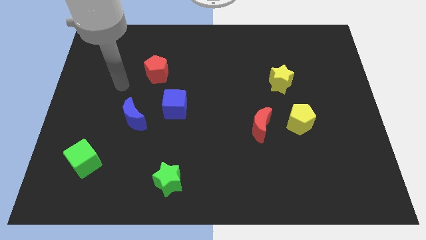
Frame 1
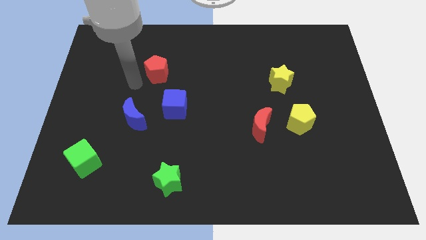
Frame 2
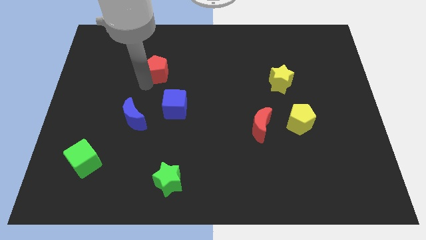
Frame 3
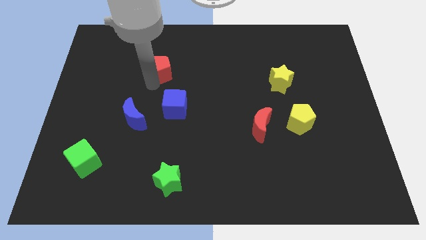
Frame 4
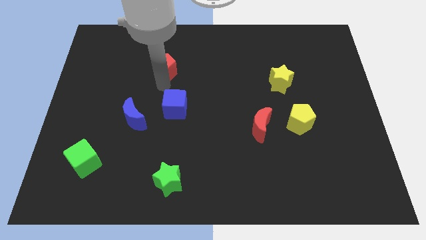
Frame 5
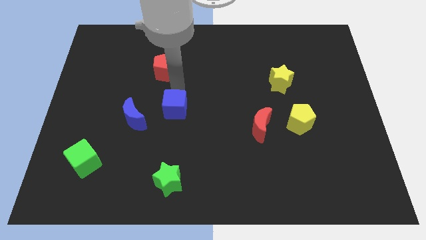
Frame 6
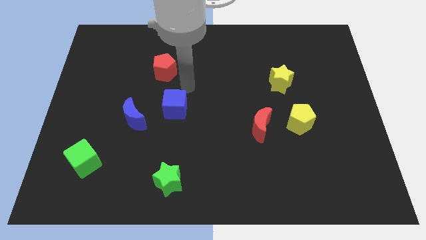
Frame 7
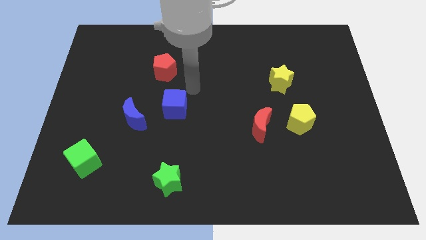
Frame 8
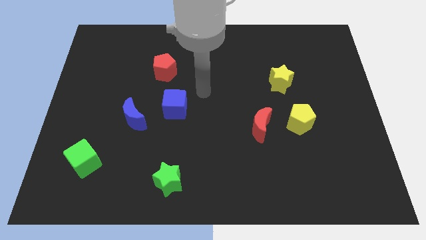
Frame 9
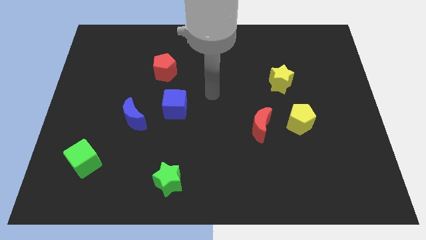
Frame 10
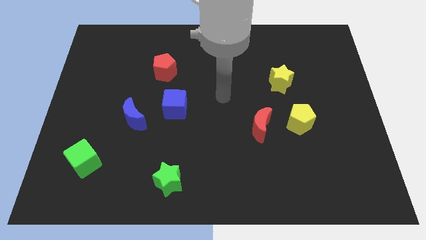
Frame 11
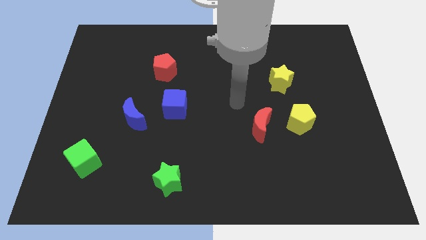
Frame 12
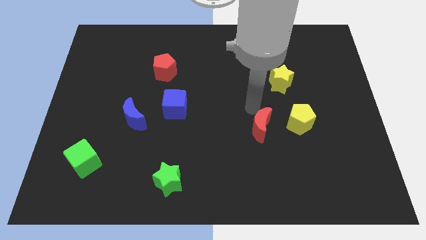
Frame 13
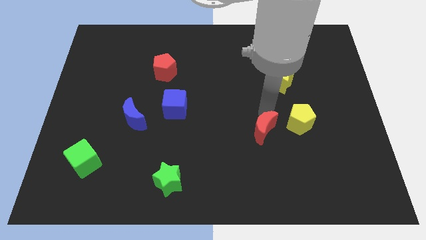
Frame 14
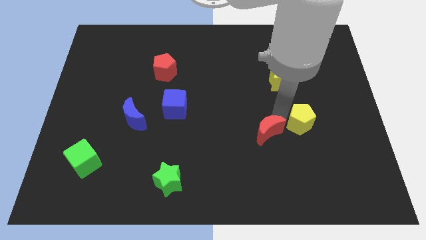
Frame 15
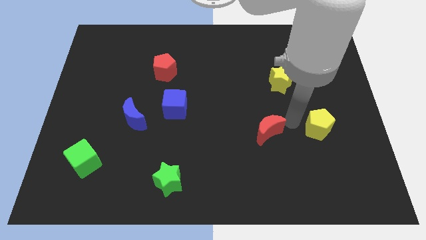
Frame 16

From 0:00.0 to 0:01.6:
pull the red moon apart from the yellow pentagon

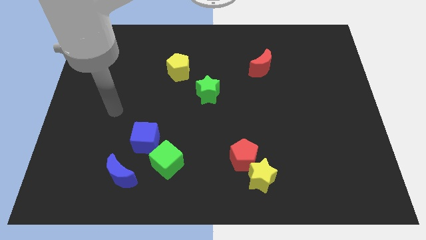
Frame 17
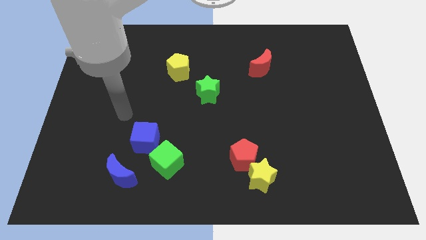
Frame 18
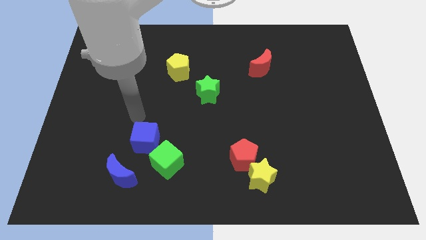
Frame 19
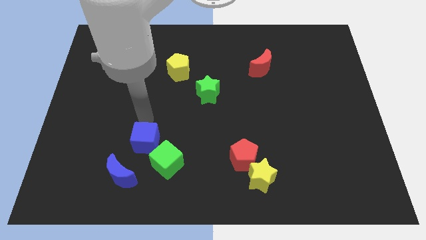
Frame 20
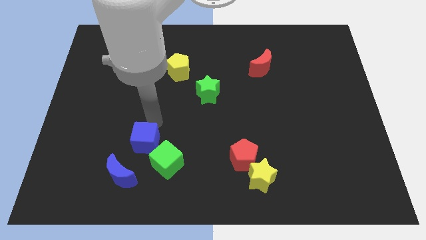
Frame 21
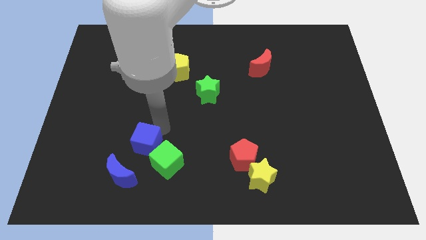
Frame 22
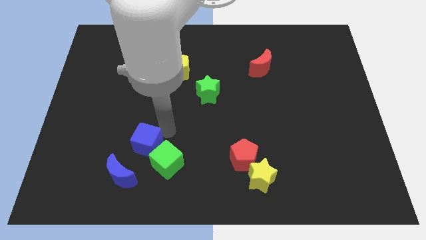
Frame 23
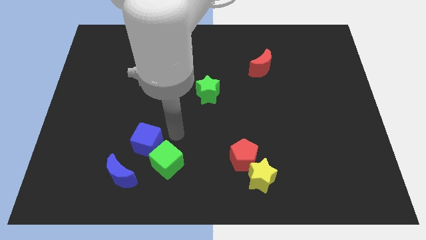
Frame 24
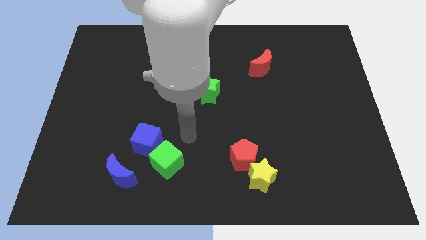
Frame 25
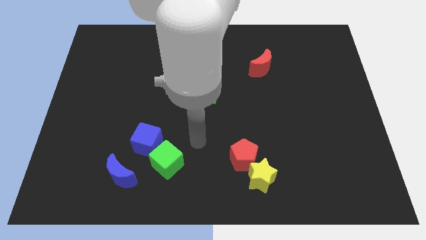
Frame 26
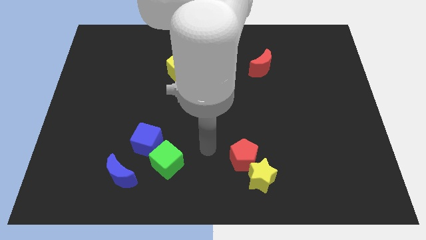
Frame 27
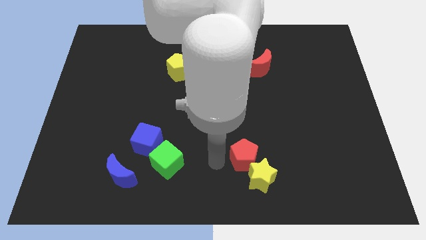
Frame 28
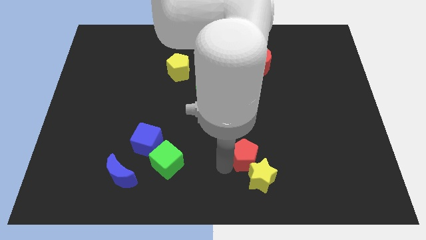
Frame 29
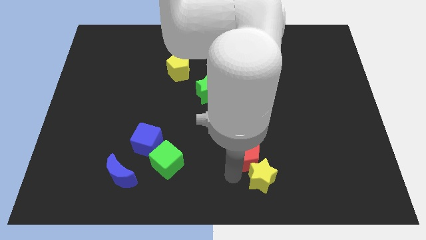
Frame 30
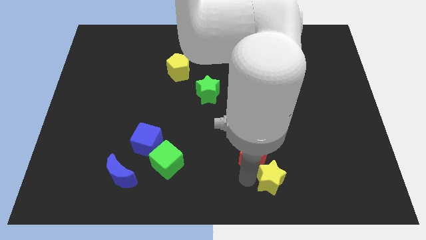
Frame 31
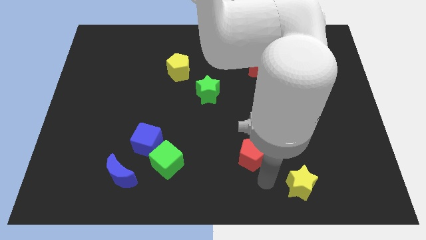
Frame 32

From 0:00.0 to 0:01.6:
pull the red pentagon apart from the yellow star

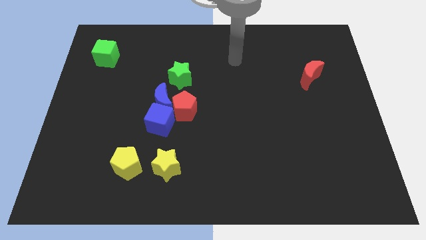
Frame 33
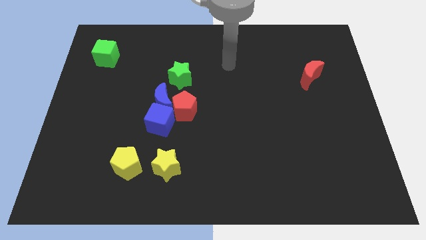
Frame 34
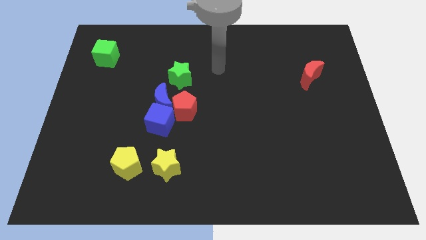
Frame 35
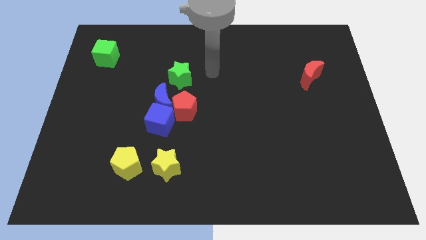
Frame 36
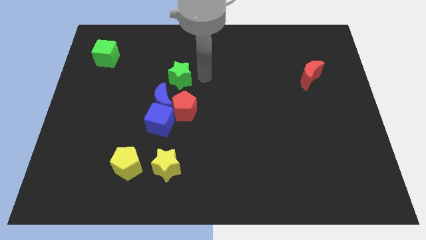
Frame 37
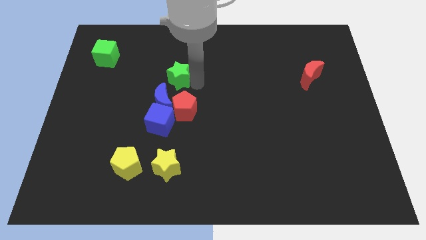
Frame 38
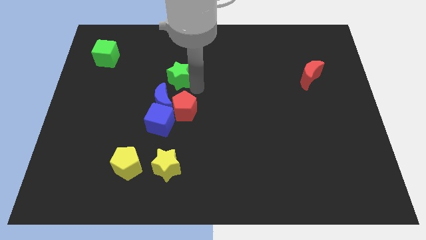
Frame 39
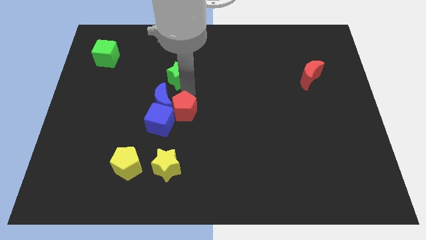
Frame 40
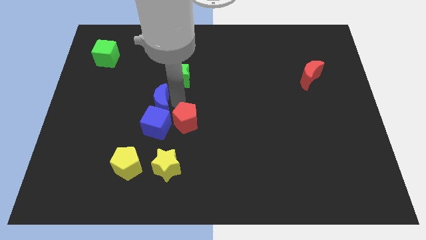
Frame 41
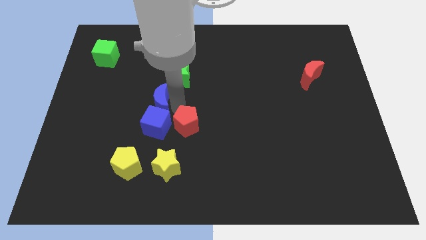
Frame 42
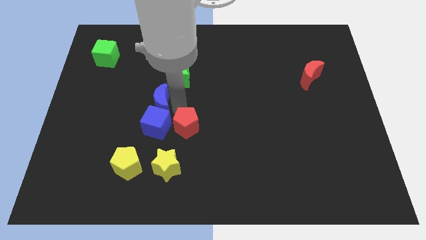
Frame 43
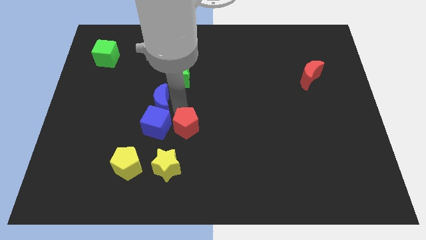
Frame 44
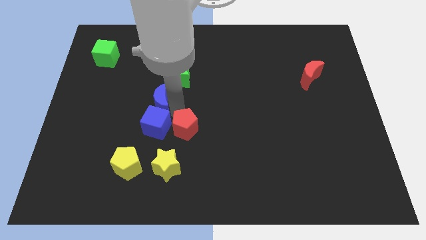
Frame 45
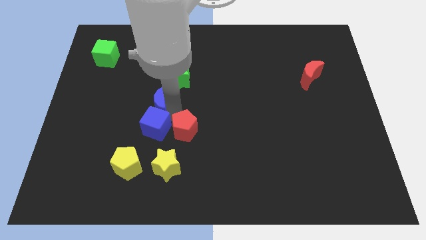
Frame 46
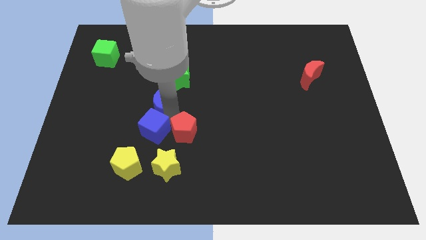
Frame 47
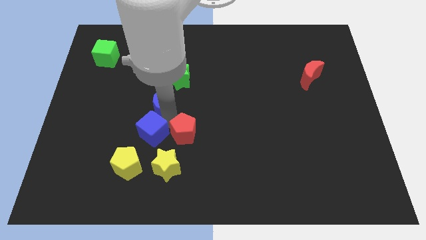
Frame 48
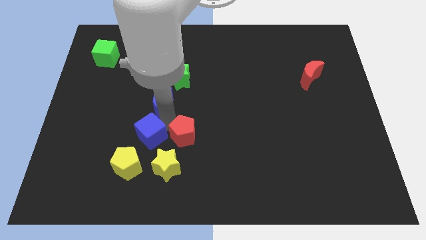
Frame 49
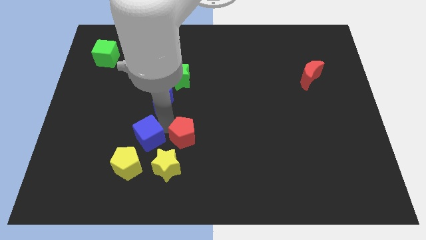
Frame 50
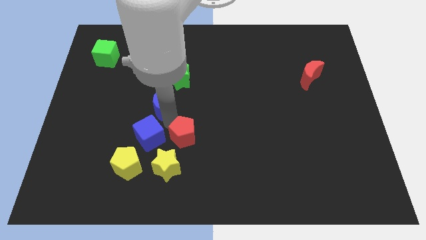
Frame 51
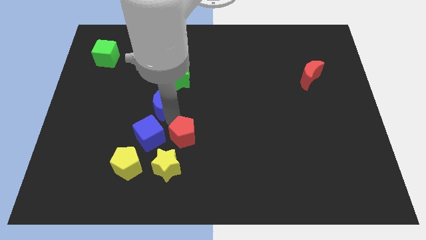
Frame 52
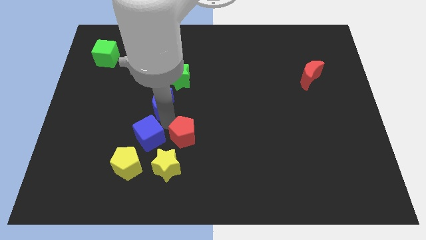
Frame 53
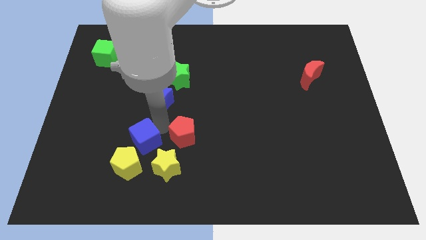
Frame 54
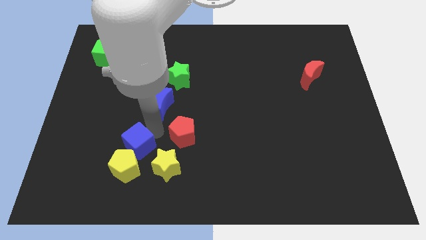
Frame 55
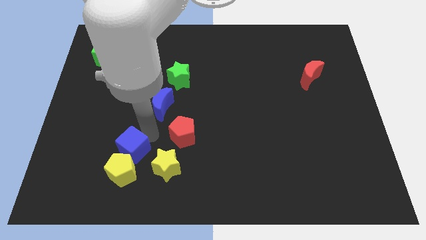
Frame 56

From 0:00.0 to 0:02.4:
pull the blue cube apart from the blue moon and red pentagon

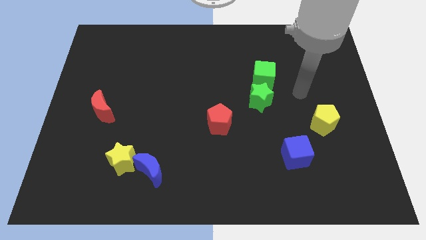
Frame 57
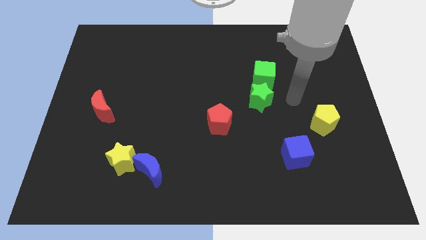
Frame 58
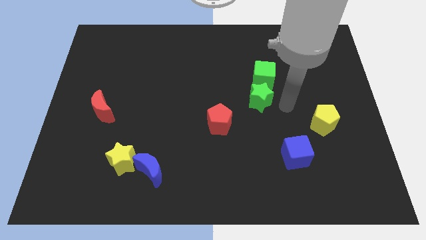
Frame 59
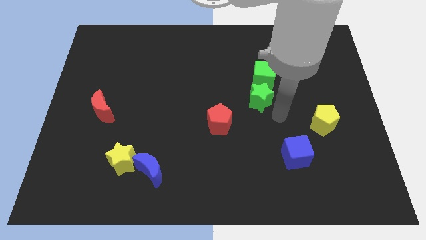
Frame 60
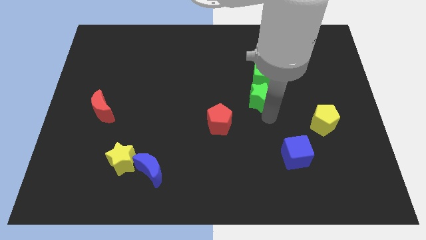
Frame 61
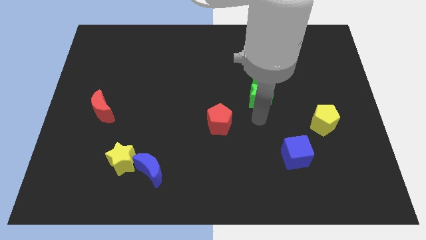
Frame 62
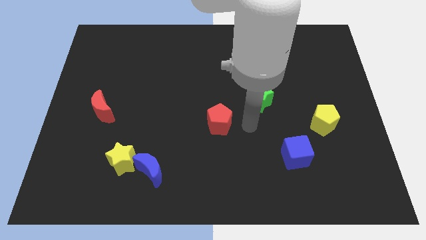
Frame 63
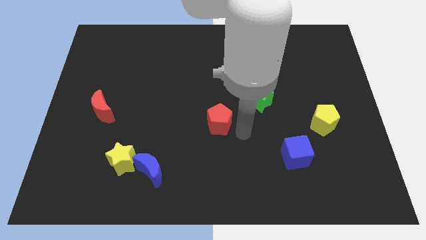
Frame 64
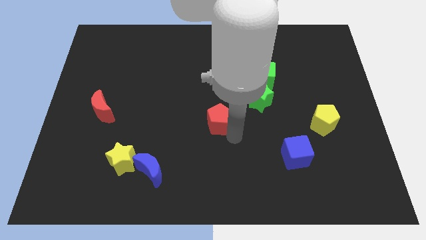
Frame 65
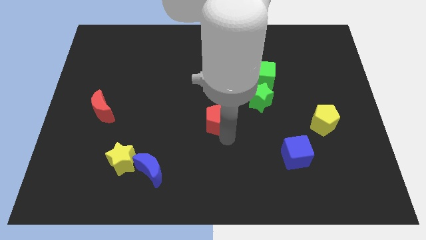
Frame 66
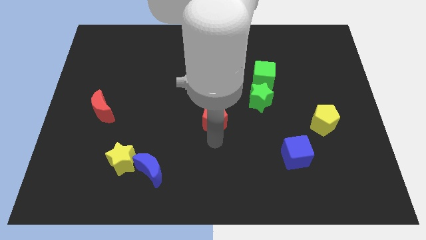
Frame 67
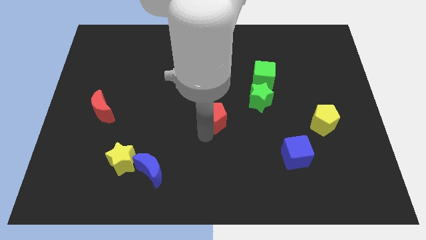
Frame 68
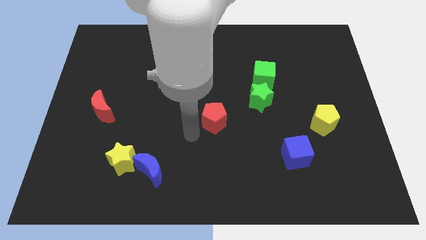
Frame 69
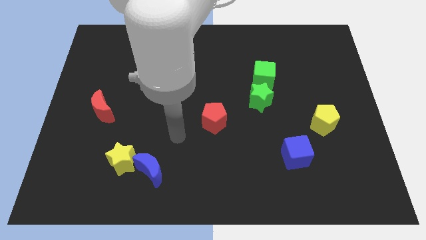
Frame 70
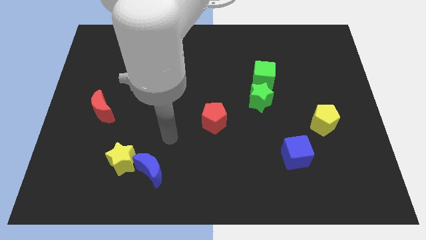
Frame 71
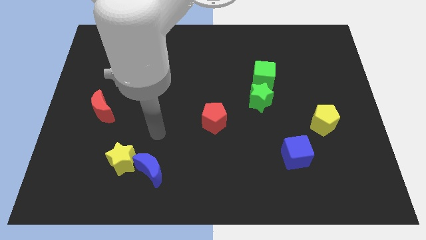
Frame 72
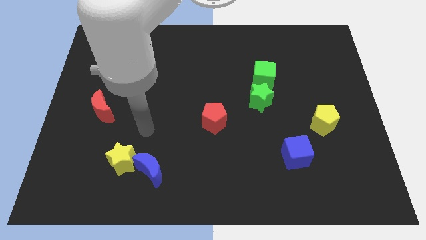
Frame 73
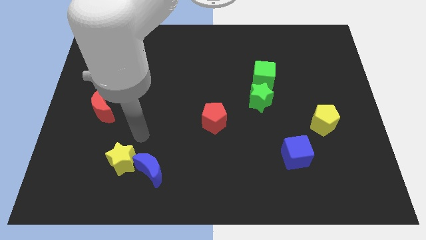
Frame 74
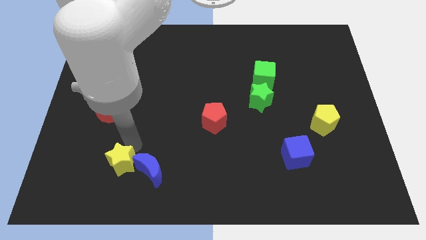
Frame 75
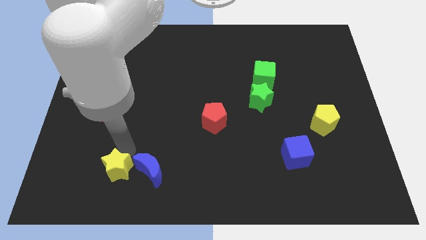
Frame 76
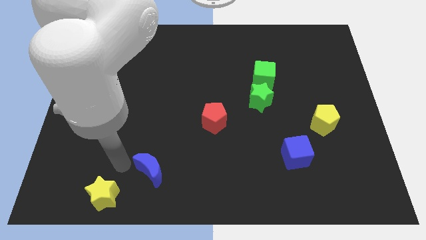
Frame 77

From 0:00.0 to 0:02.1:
separate the blue moon from the yellow star

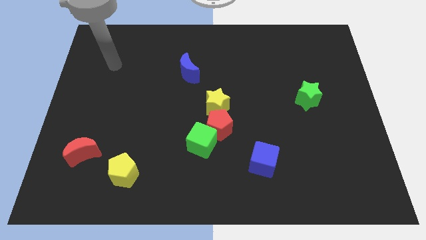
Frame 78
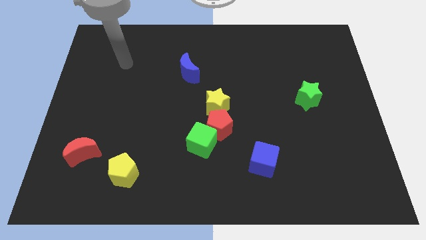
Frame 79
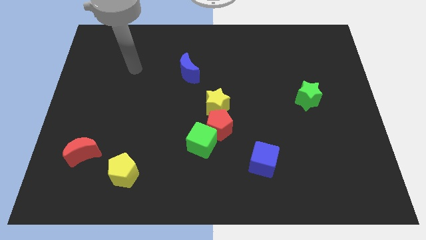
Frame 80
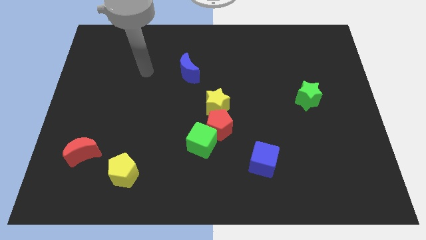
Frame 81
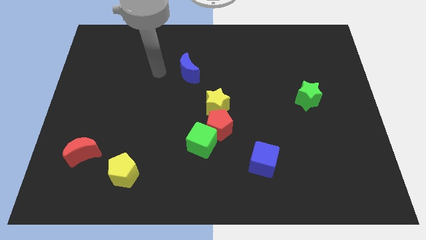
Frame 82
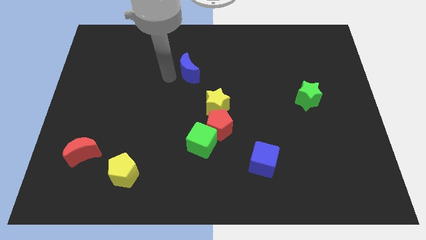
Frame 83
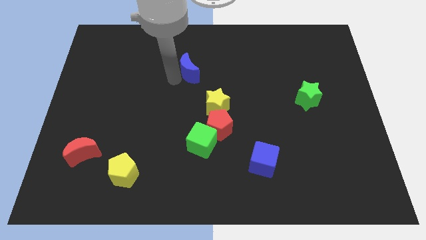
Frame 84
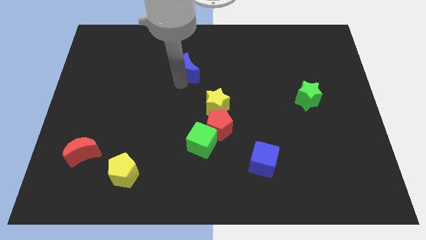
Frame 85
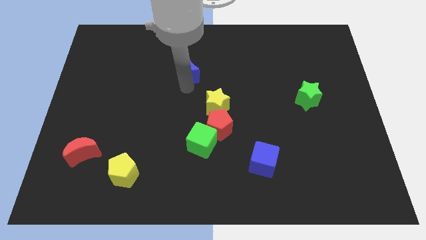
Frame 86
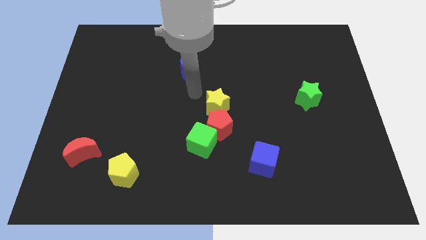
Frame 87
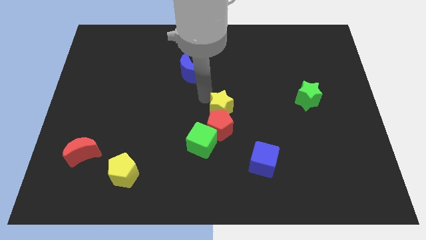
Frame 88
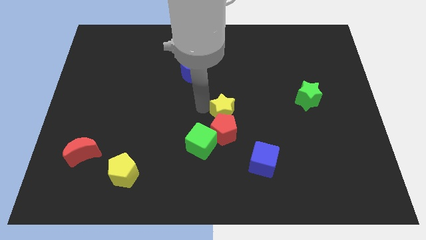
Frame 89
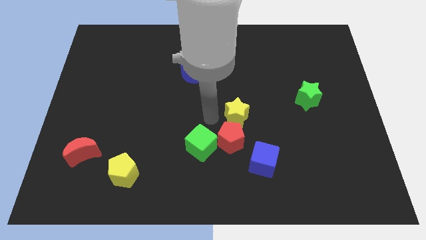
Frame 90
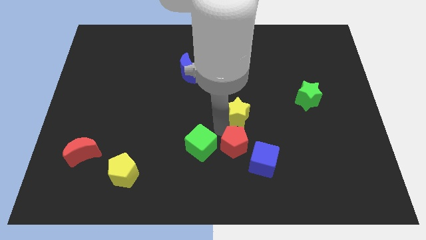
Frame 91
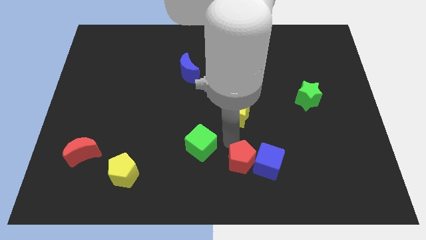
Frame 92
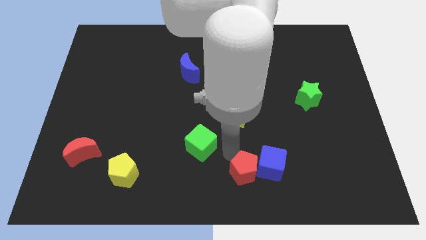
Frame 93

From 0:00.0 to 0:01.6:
move the green cube away from the red pentagon
